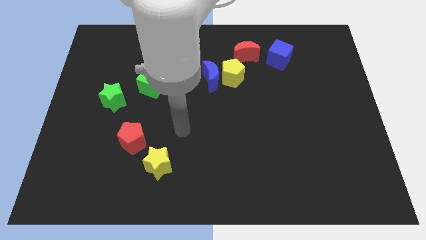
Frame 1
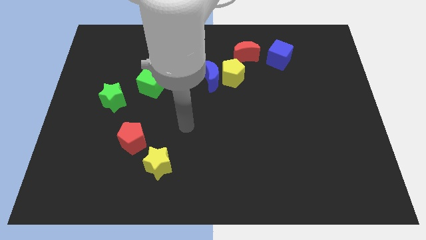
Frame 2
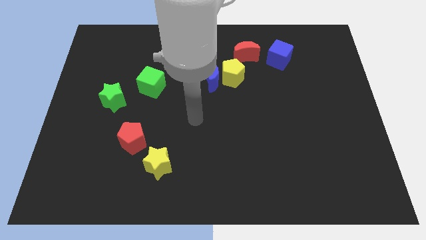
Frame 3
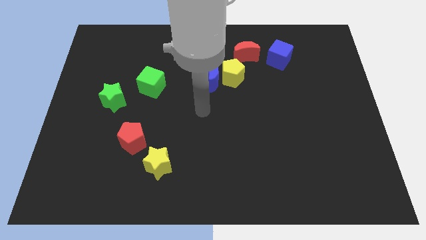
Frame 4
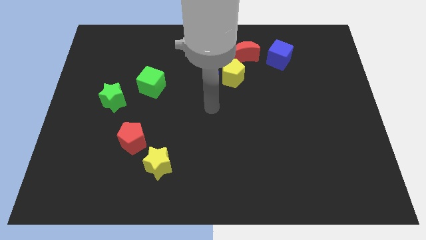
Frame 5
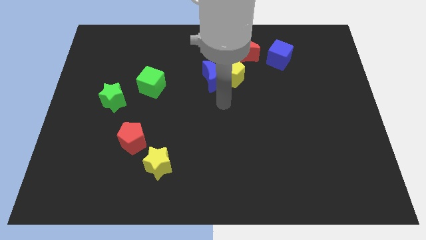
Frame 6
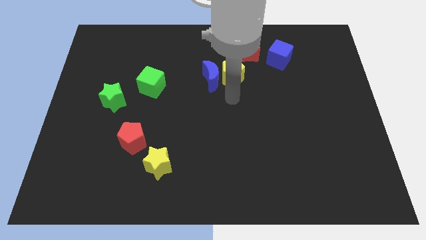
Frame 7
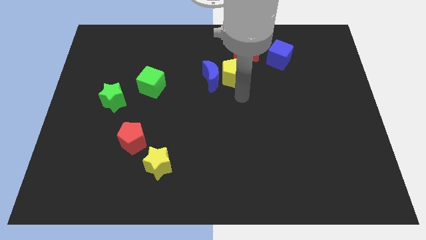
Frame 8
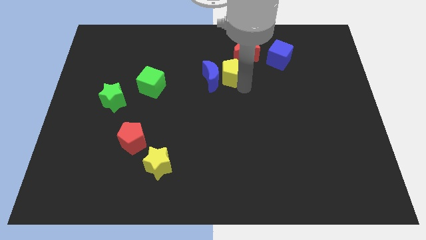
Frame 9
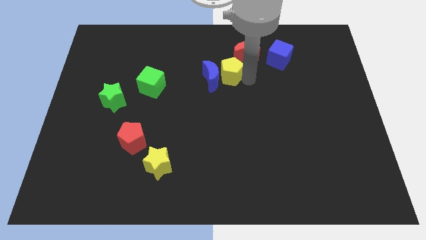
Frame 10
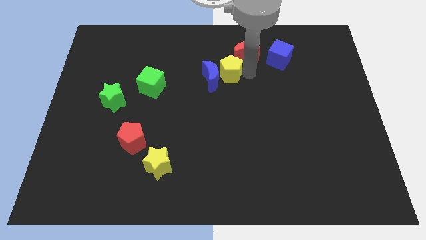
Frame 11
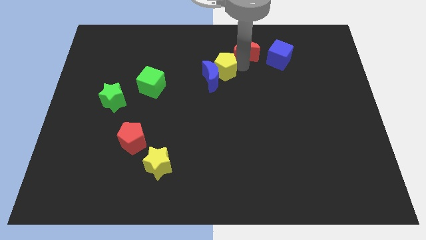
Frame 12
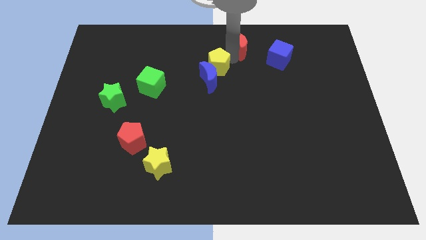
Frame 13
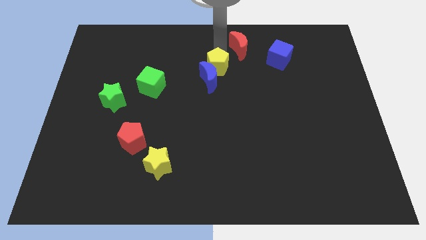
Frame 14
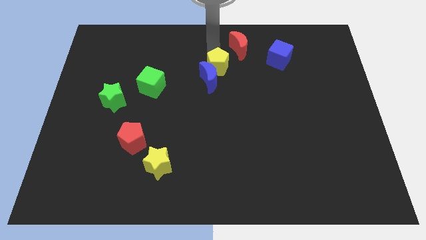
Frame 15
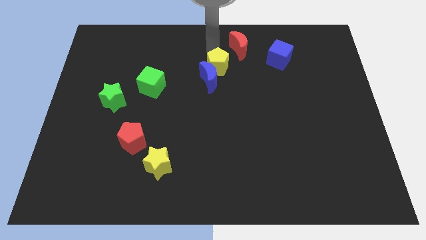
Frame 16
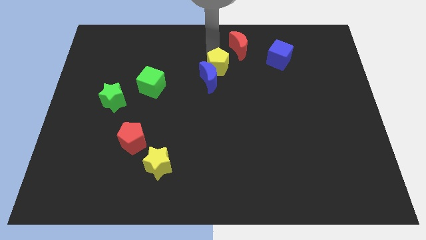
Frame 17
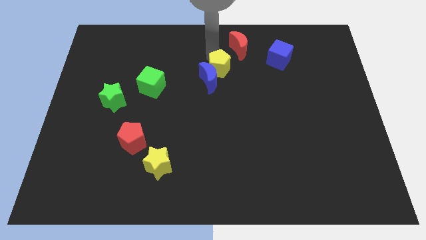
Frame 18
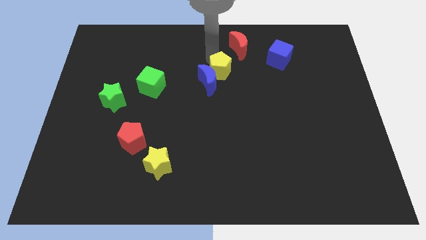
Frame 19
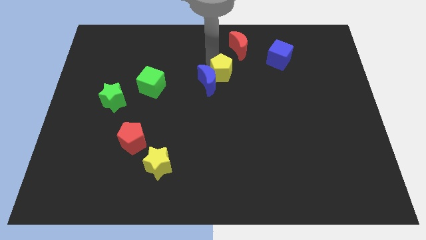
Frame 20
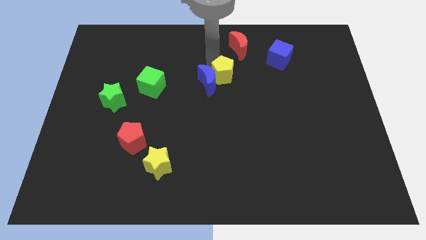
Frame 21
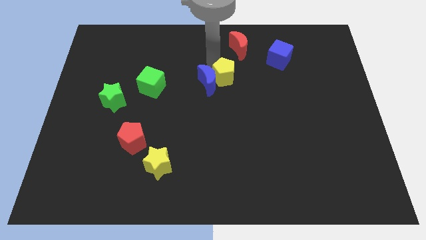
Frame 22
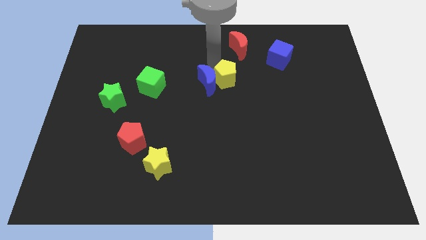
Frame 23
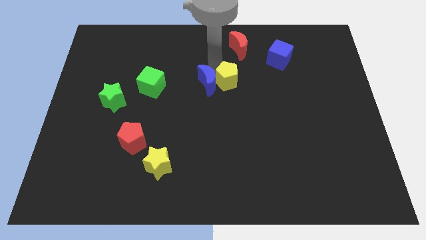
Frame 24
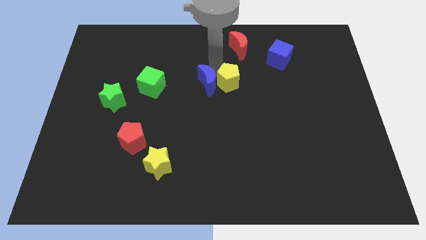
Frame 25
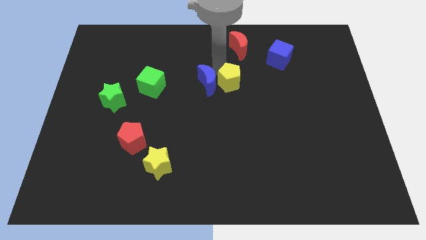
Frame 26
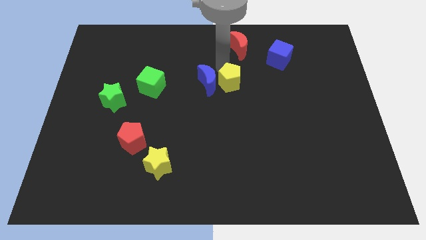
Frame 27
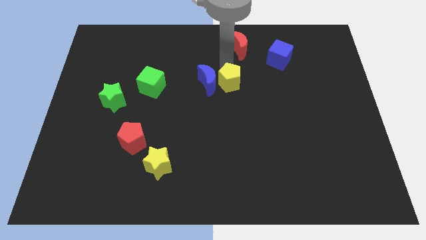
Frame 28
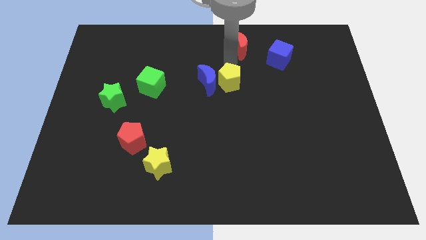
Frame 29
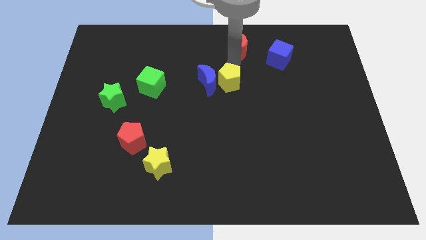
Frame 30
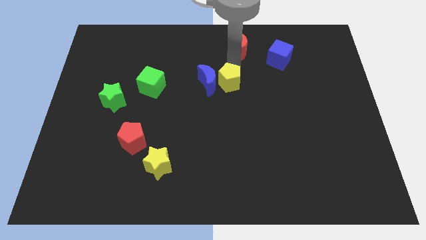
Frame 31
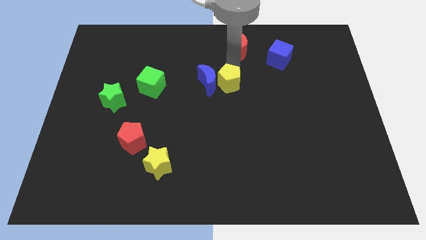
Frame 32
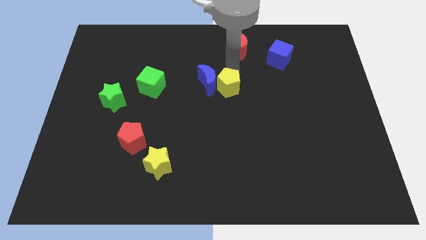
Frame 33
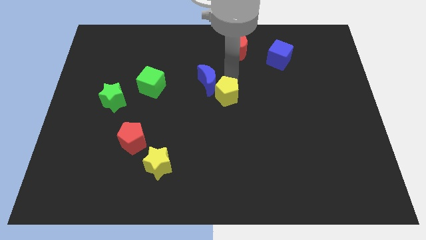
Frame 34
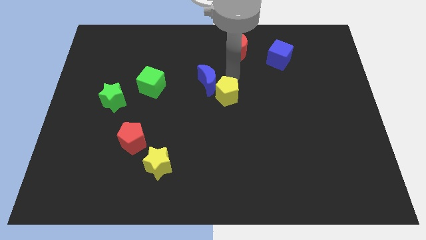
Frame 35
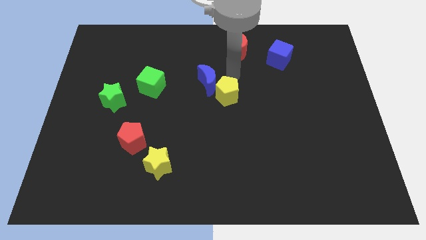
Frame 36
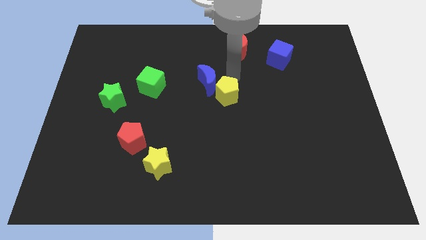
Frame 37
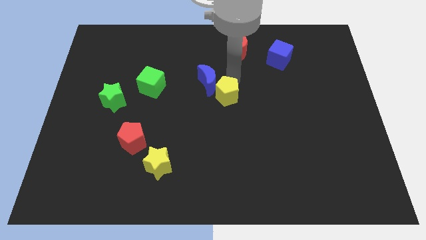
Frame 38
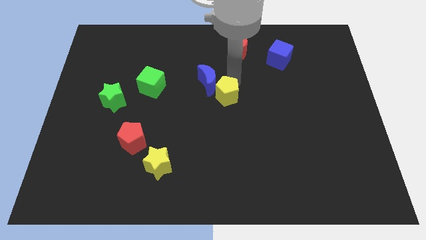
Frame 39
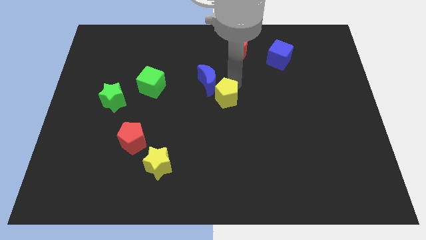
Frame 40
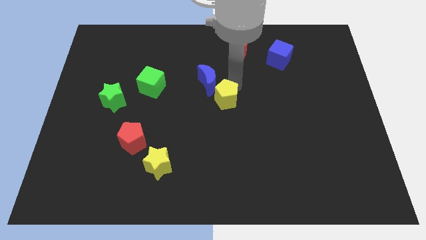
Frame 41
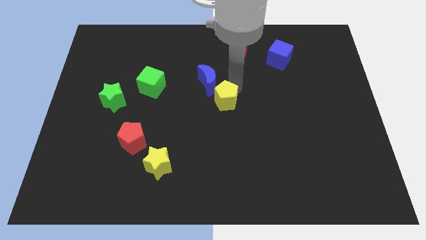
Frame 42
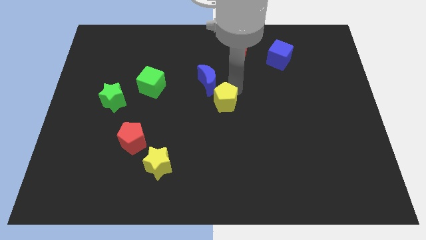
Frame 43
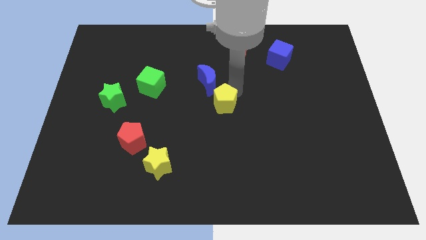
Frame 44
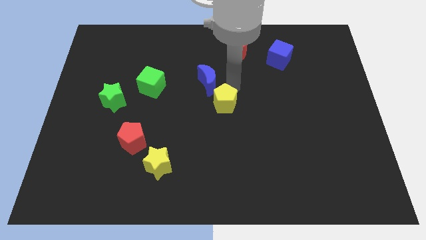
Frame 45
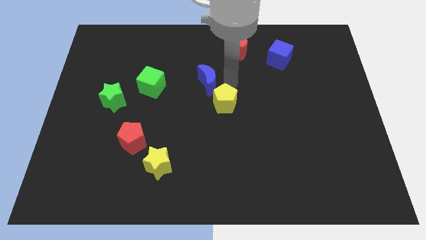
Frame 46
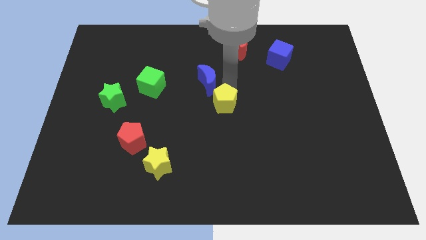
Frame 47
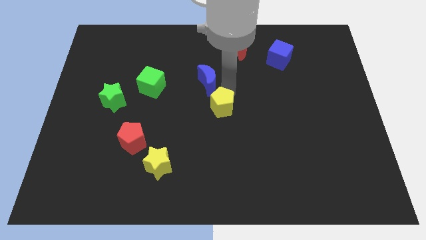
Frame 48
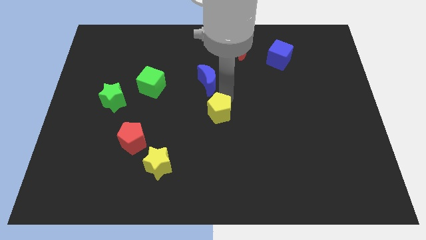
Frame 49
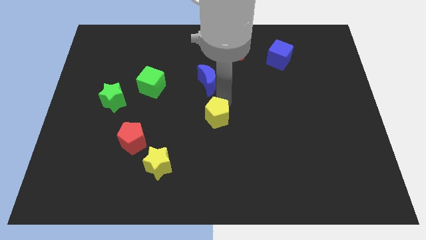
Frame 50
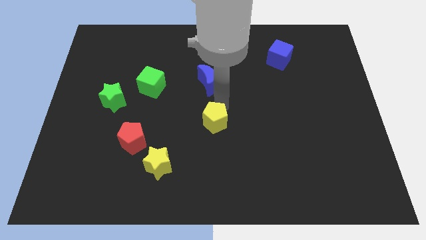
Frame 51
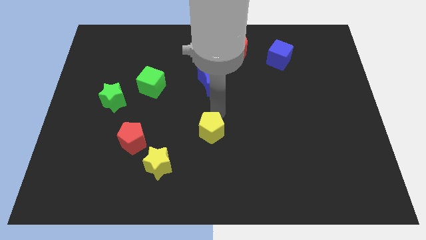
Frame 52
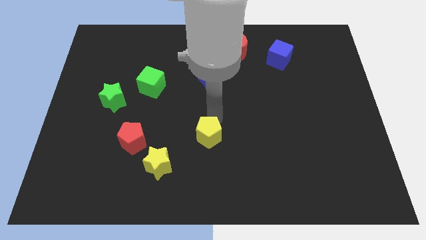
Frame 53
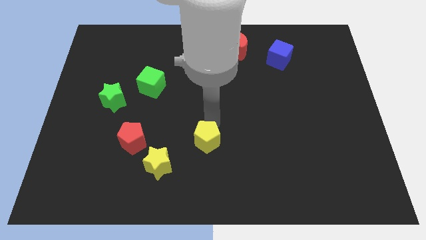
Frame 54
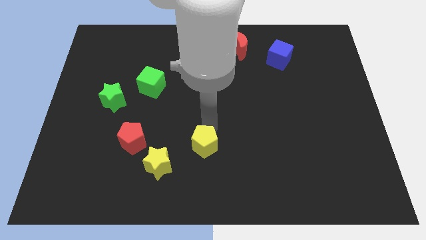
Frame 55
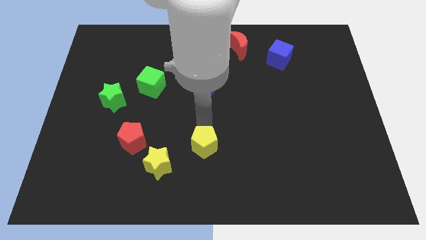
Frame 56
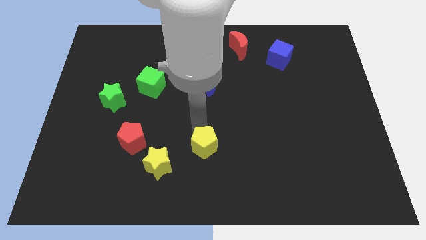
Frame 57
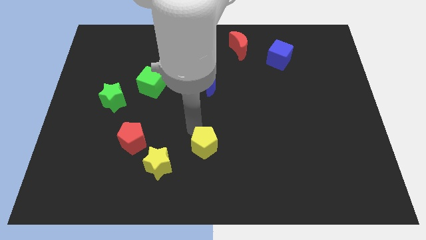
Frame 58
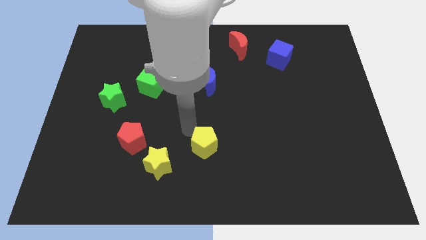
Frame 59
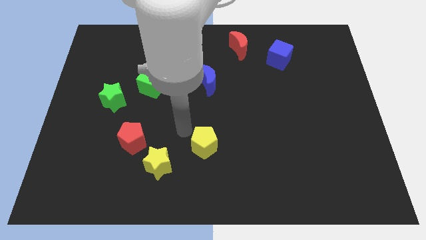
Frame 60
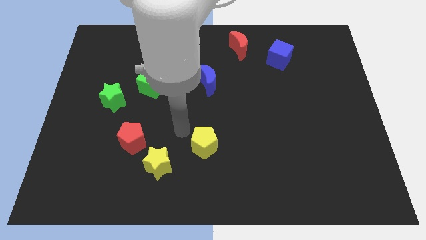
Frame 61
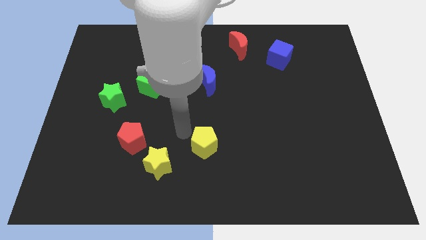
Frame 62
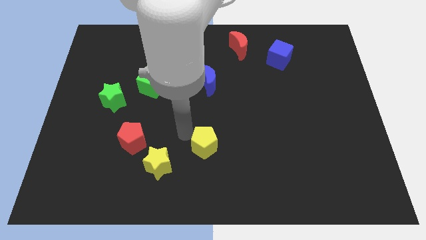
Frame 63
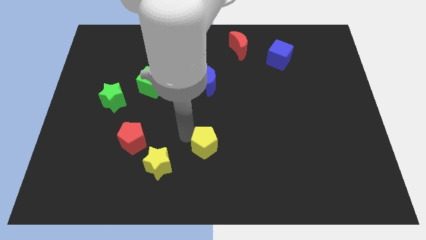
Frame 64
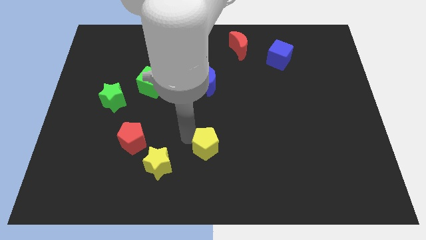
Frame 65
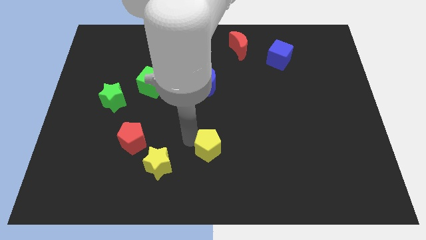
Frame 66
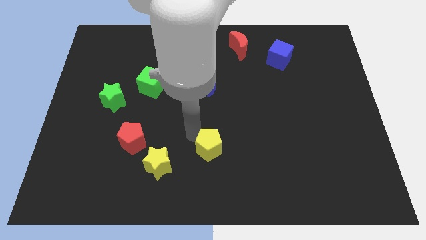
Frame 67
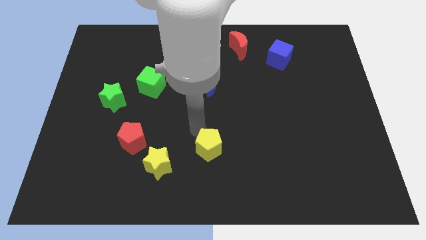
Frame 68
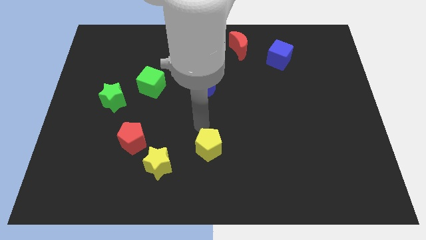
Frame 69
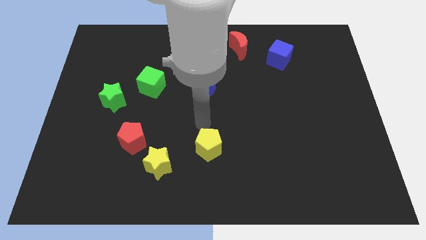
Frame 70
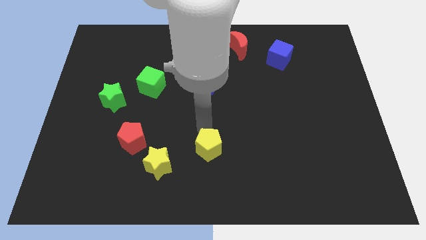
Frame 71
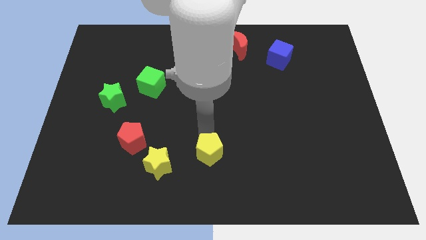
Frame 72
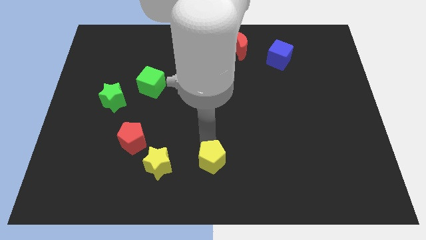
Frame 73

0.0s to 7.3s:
put the yellow pentagon to the bottom side
